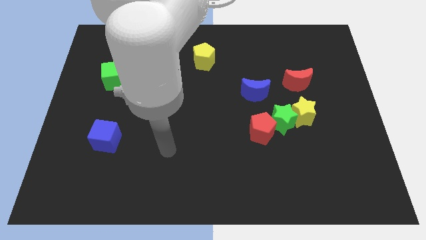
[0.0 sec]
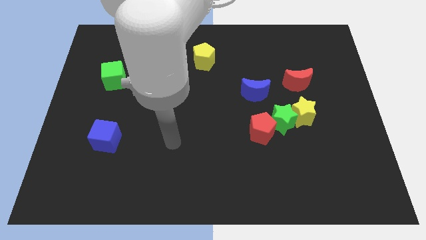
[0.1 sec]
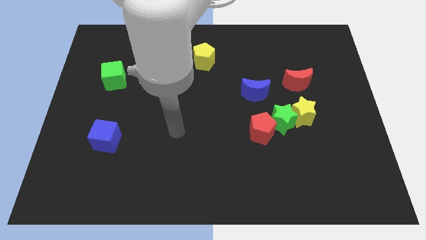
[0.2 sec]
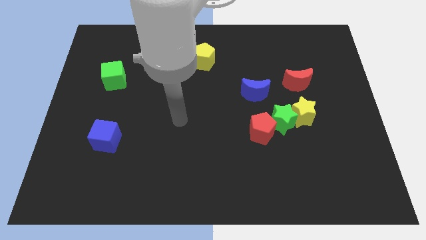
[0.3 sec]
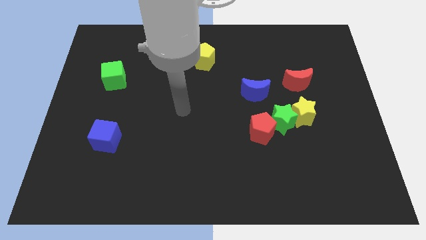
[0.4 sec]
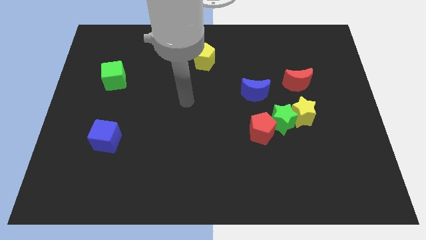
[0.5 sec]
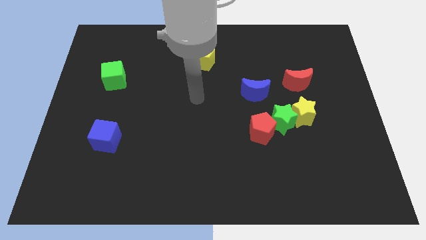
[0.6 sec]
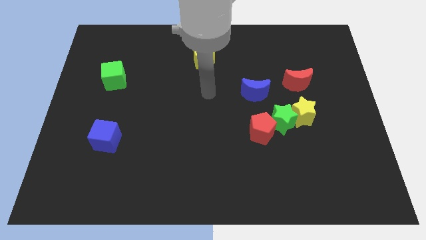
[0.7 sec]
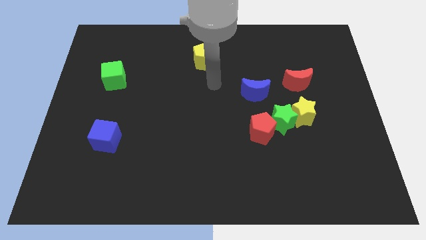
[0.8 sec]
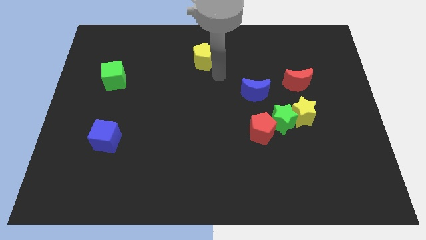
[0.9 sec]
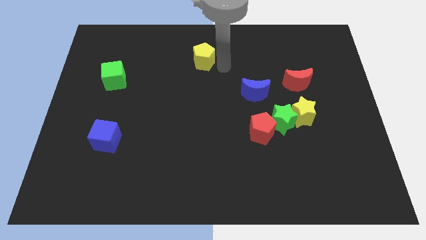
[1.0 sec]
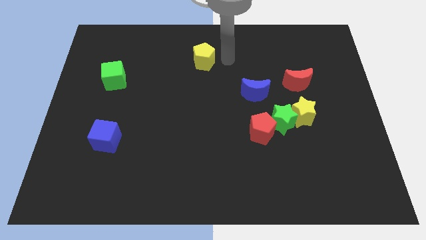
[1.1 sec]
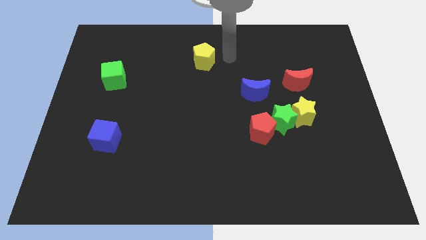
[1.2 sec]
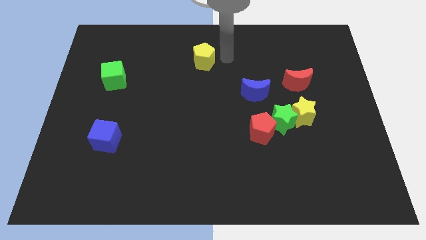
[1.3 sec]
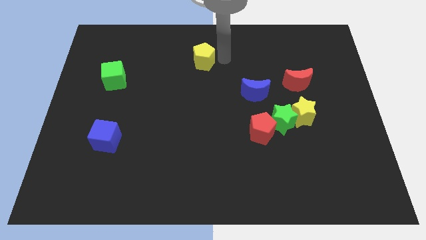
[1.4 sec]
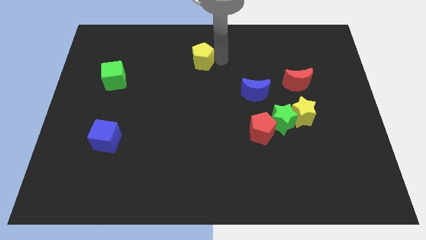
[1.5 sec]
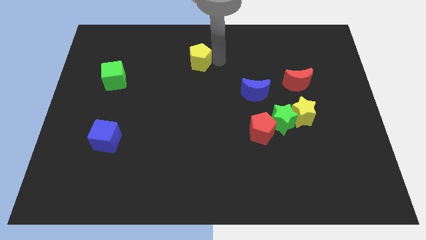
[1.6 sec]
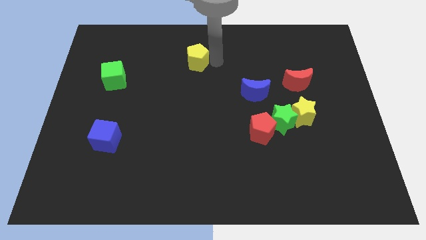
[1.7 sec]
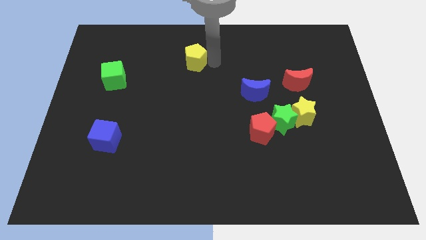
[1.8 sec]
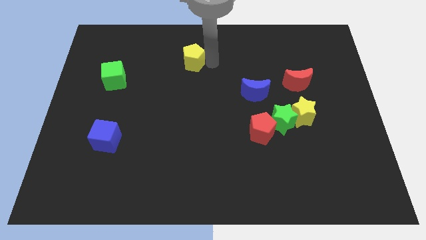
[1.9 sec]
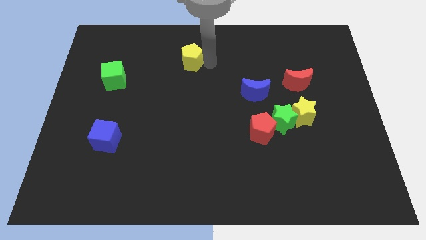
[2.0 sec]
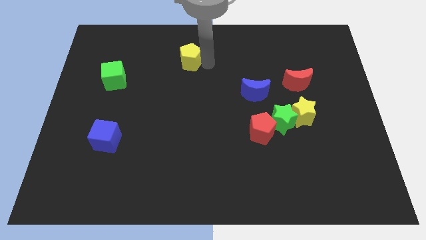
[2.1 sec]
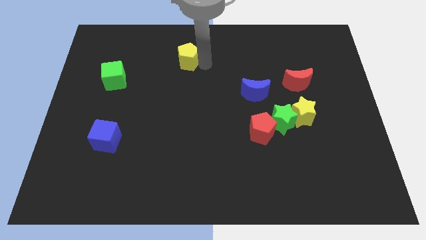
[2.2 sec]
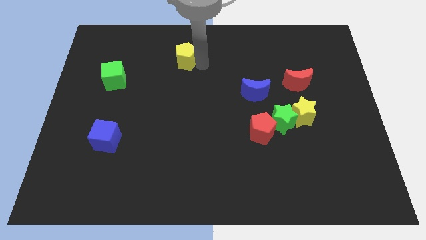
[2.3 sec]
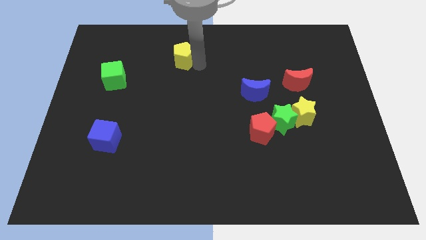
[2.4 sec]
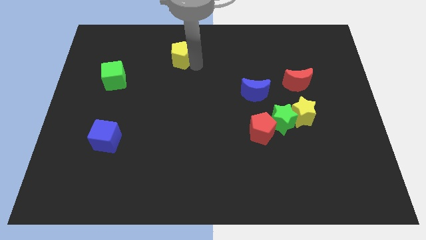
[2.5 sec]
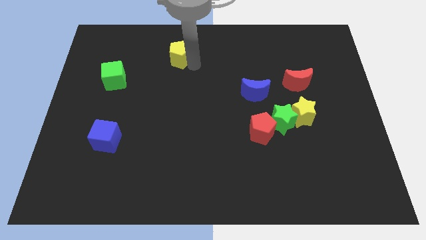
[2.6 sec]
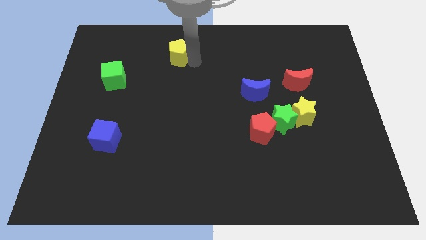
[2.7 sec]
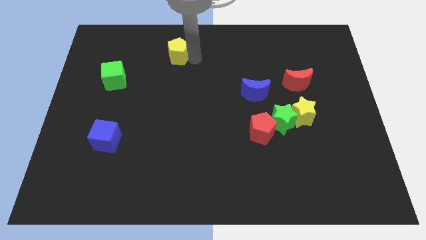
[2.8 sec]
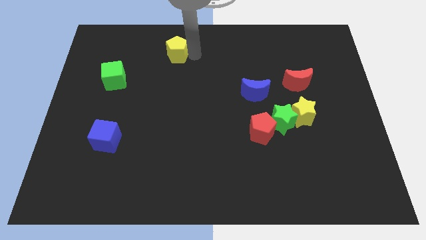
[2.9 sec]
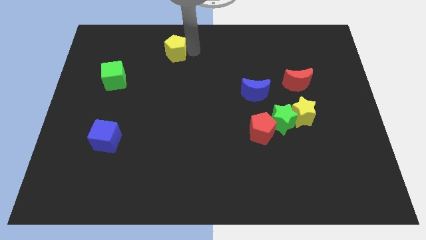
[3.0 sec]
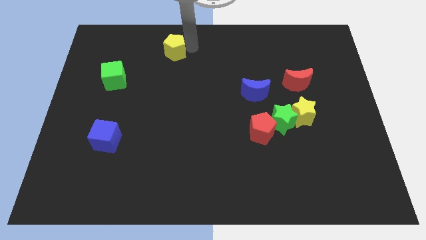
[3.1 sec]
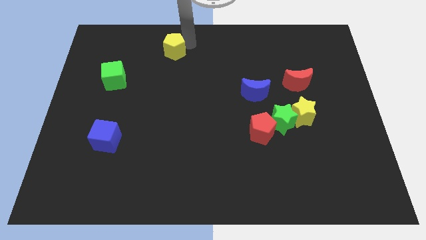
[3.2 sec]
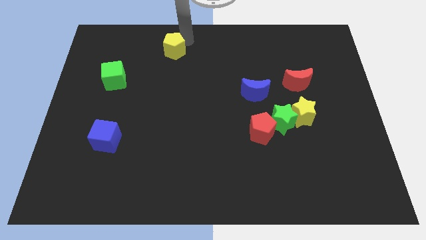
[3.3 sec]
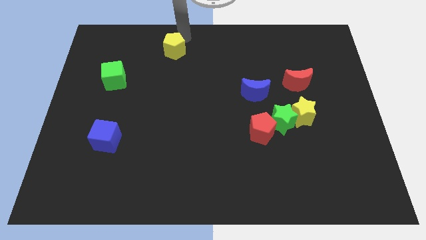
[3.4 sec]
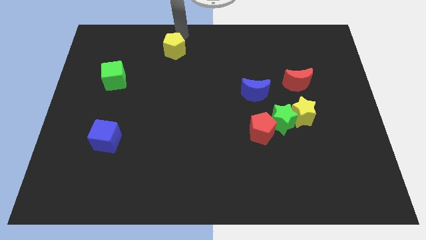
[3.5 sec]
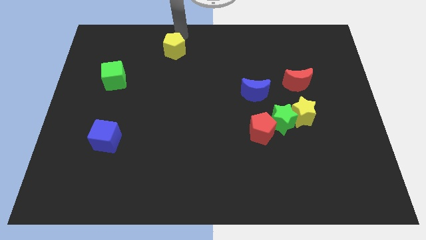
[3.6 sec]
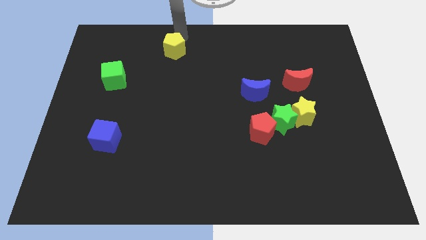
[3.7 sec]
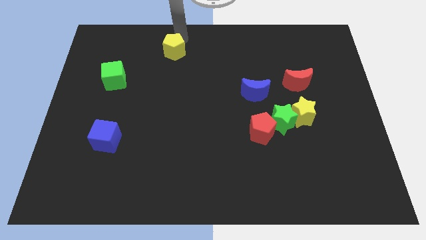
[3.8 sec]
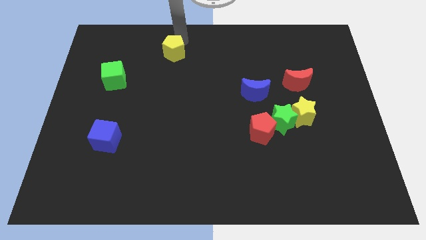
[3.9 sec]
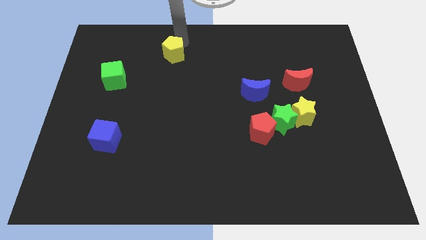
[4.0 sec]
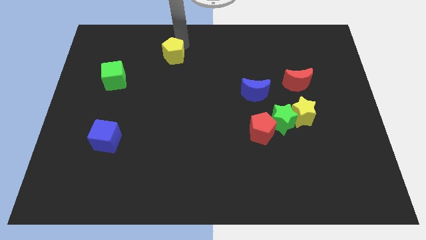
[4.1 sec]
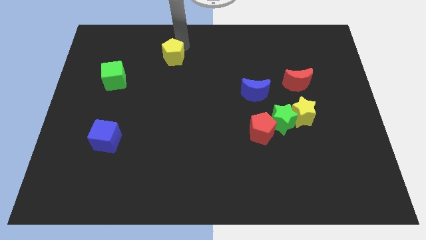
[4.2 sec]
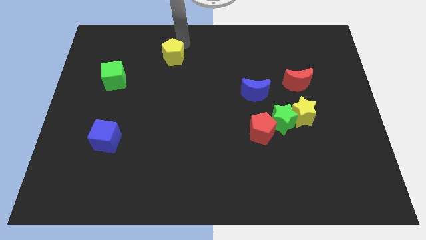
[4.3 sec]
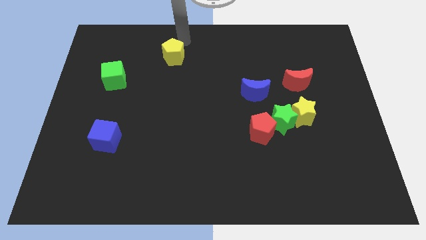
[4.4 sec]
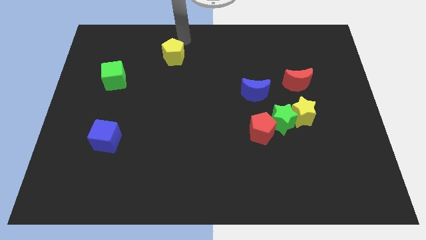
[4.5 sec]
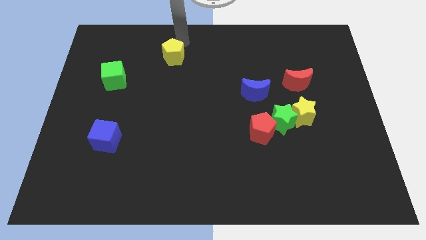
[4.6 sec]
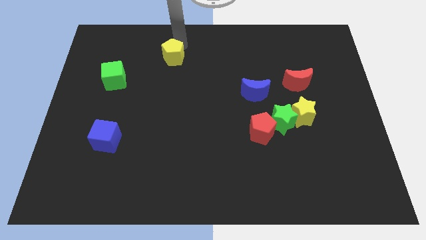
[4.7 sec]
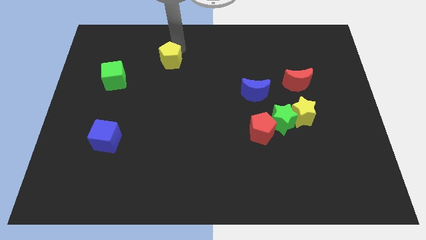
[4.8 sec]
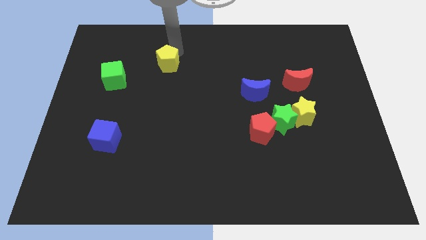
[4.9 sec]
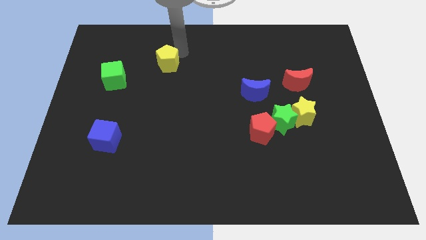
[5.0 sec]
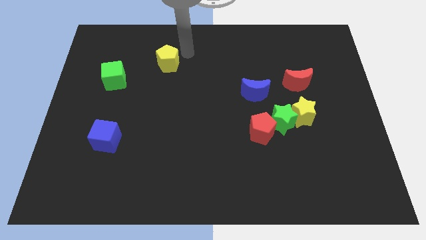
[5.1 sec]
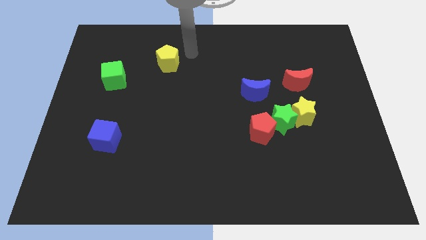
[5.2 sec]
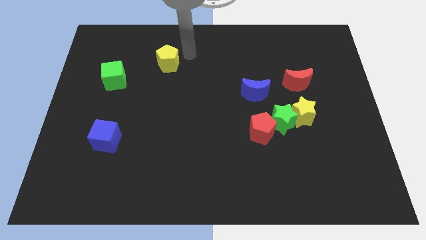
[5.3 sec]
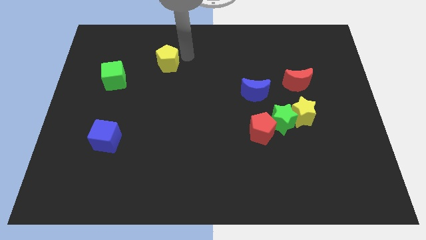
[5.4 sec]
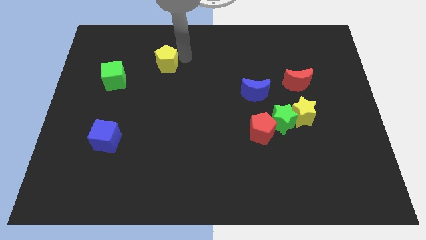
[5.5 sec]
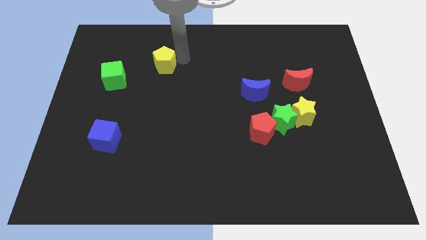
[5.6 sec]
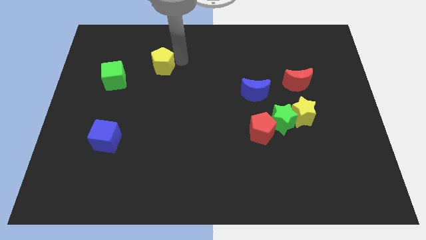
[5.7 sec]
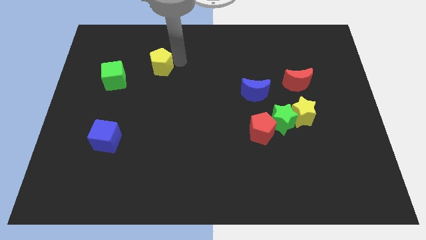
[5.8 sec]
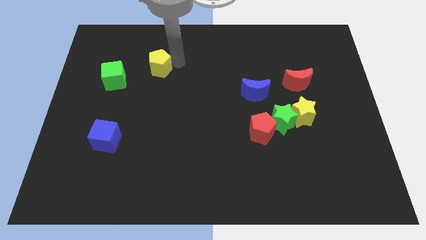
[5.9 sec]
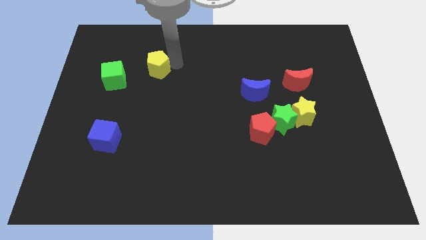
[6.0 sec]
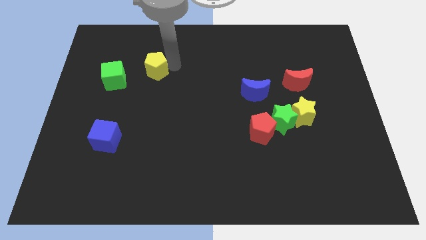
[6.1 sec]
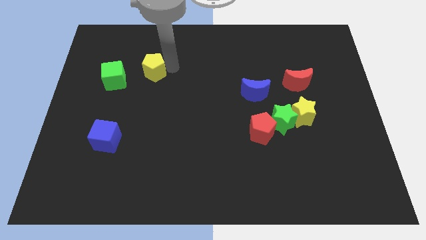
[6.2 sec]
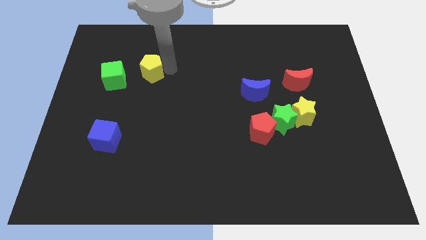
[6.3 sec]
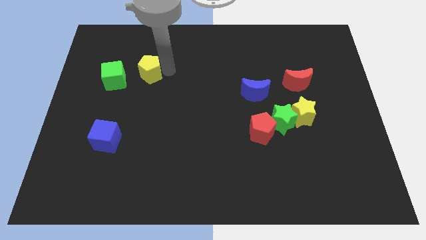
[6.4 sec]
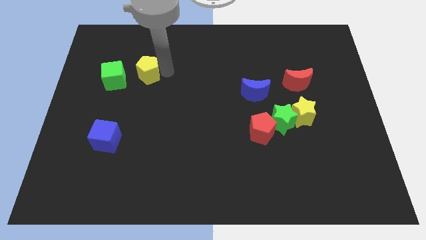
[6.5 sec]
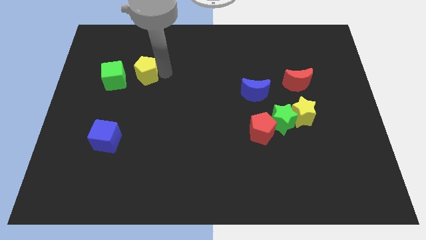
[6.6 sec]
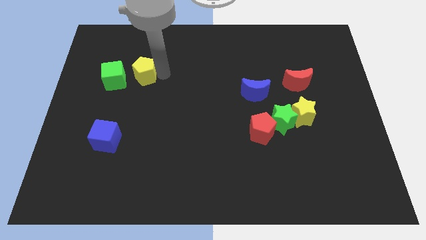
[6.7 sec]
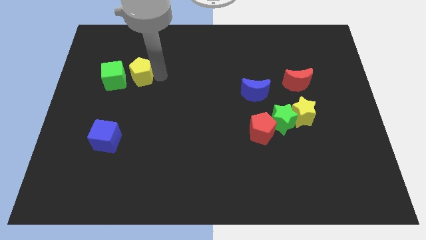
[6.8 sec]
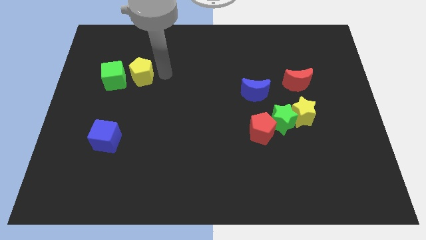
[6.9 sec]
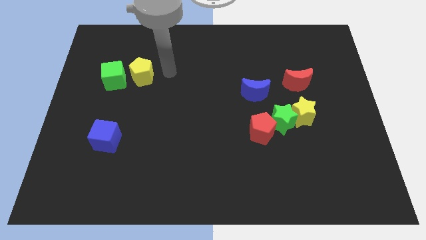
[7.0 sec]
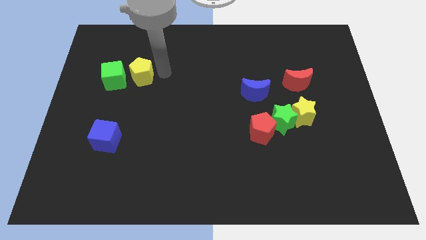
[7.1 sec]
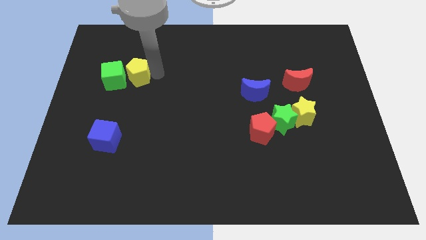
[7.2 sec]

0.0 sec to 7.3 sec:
push the yellow pentagon towards the green cube
